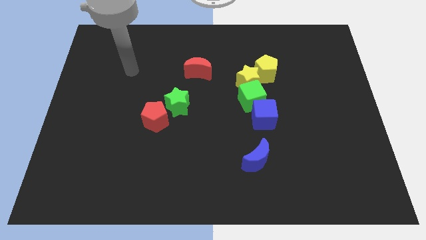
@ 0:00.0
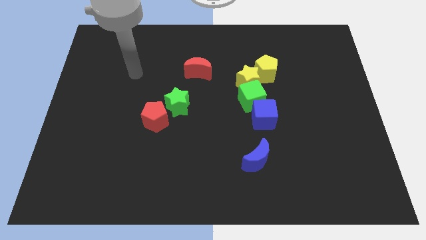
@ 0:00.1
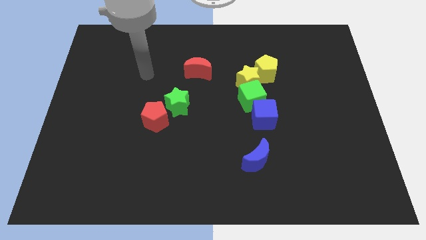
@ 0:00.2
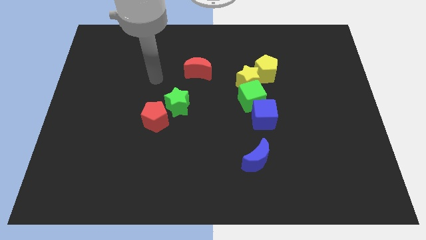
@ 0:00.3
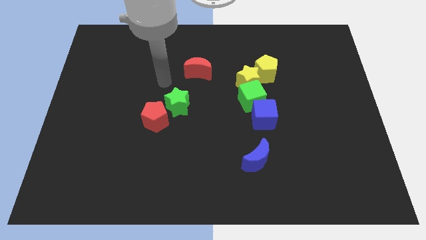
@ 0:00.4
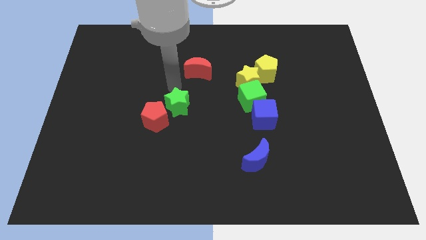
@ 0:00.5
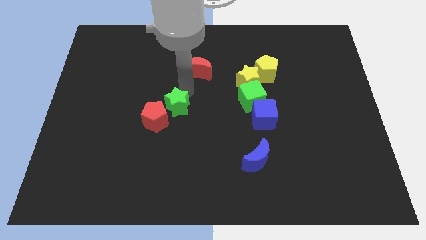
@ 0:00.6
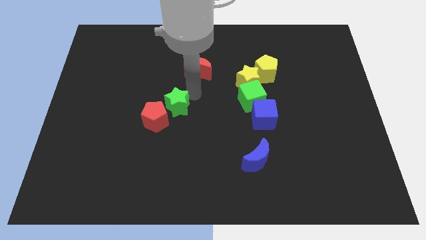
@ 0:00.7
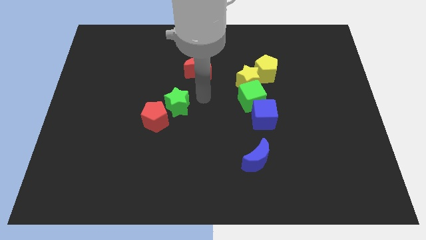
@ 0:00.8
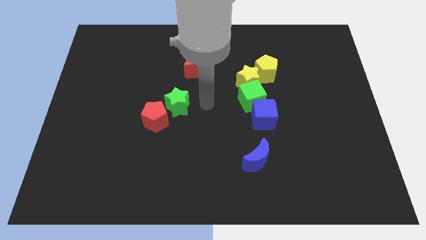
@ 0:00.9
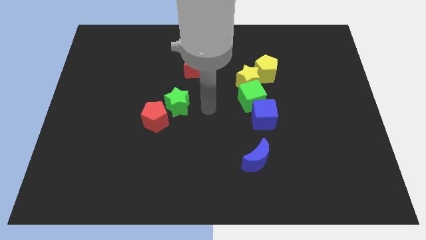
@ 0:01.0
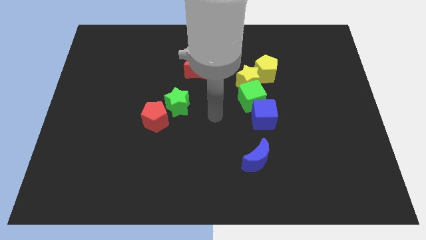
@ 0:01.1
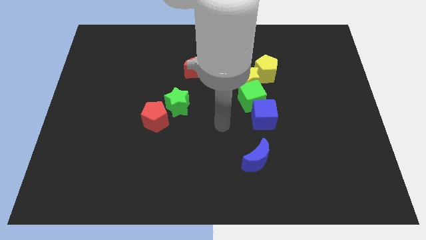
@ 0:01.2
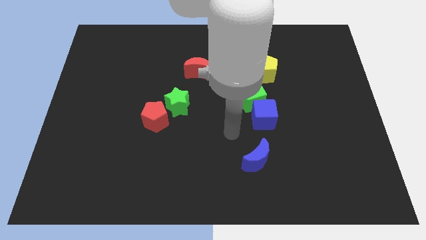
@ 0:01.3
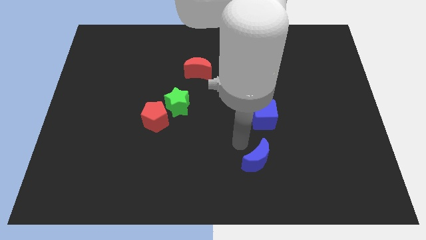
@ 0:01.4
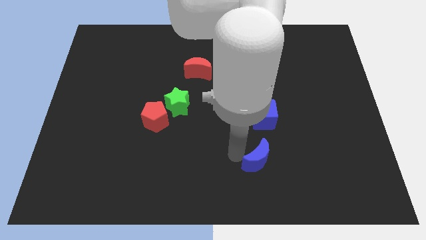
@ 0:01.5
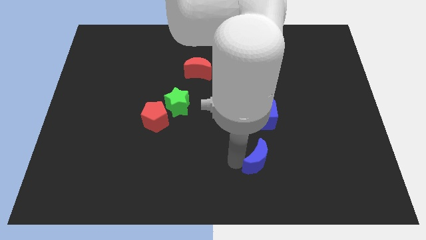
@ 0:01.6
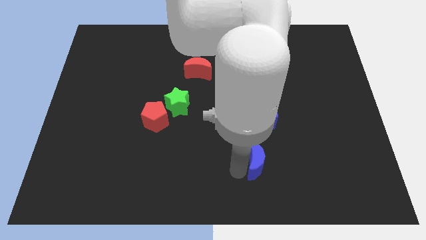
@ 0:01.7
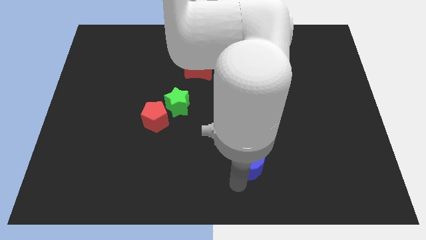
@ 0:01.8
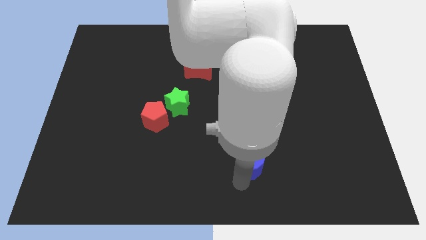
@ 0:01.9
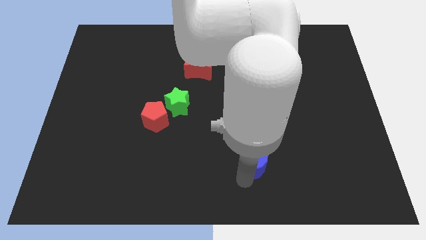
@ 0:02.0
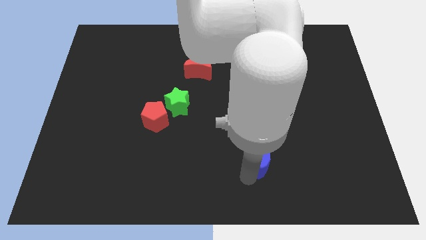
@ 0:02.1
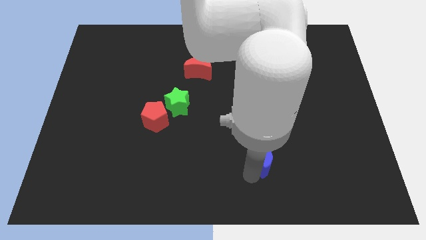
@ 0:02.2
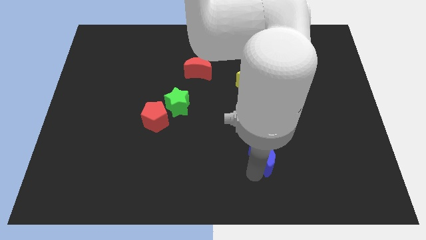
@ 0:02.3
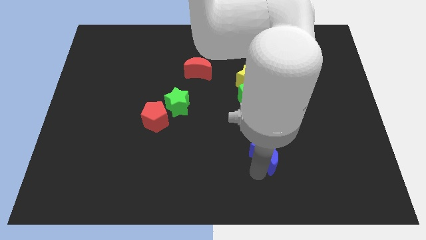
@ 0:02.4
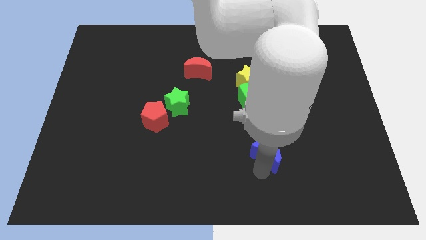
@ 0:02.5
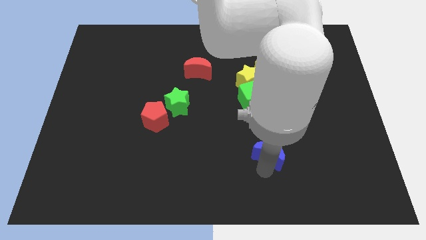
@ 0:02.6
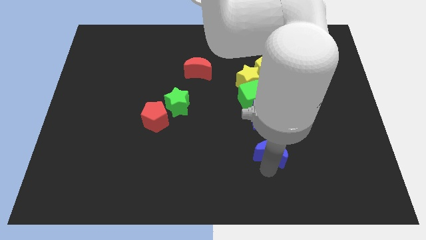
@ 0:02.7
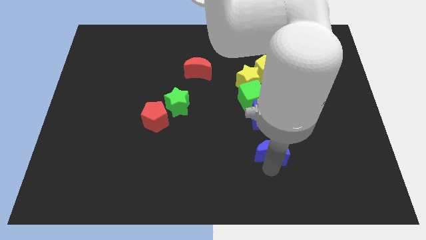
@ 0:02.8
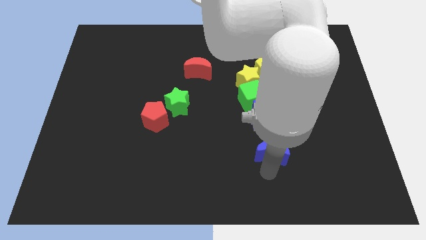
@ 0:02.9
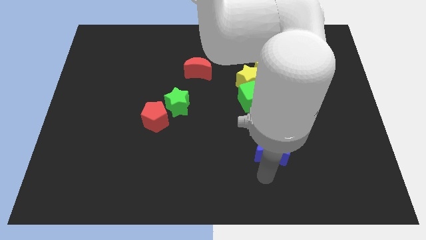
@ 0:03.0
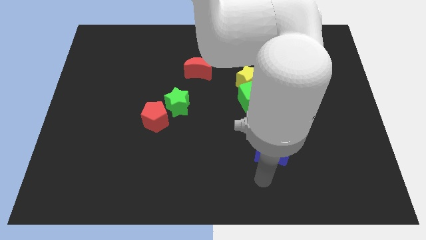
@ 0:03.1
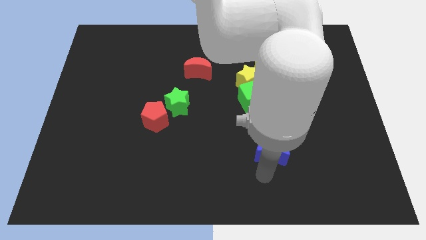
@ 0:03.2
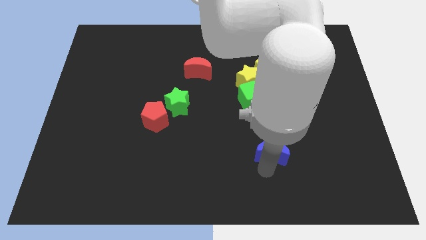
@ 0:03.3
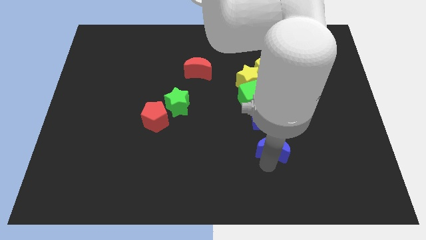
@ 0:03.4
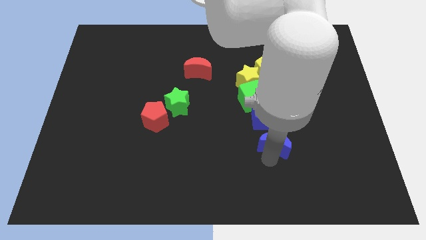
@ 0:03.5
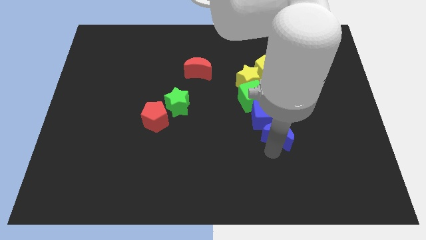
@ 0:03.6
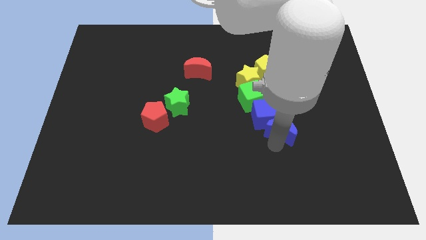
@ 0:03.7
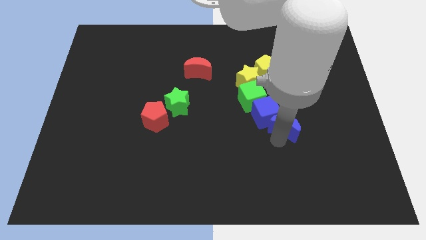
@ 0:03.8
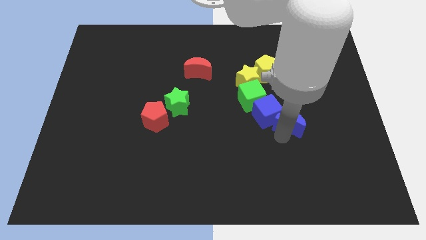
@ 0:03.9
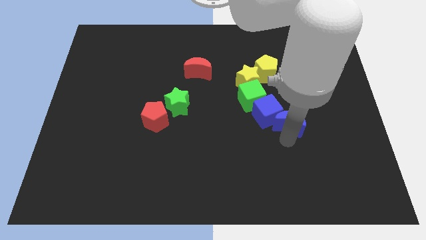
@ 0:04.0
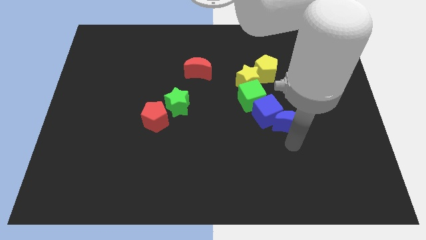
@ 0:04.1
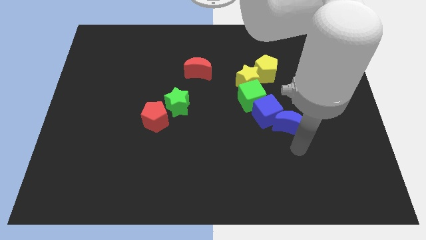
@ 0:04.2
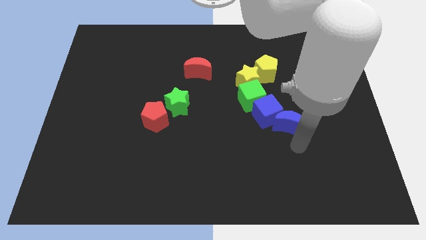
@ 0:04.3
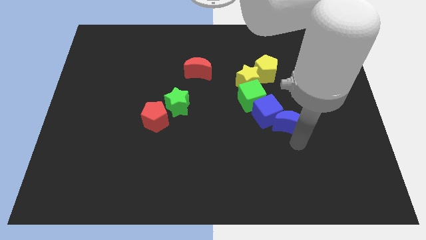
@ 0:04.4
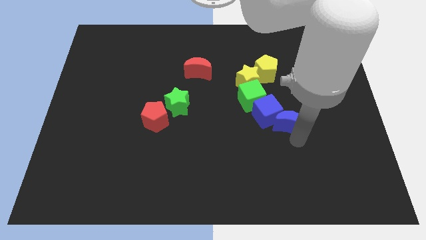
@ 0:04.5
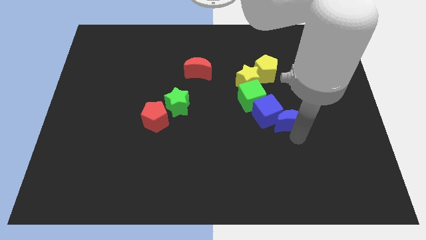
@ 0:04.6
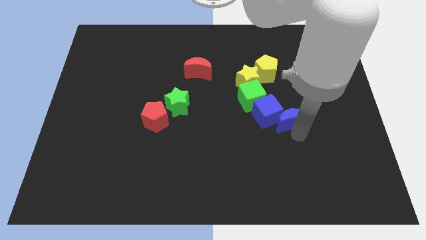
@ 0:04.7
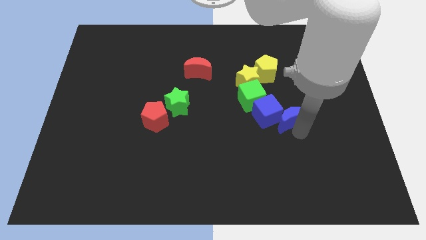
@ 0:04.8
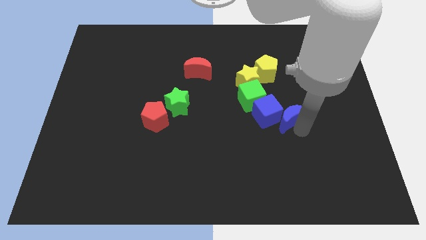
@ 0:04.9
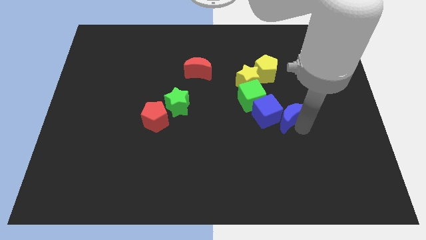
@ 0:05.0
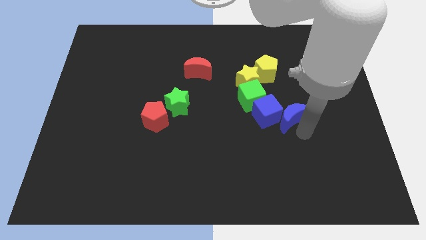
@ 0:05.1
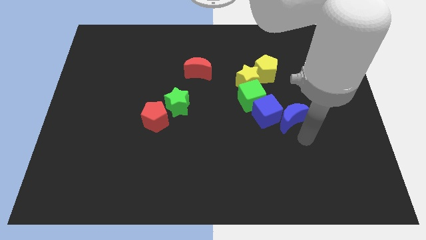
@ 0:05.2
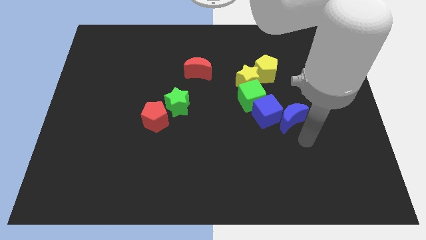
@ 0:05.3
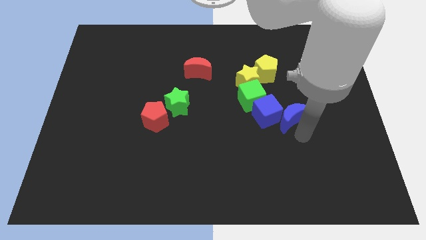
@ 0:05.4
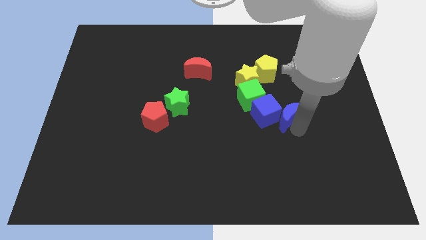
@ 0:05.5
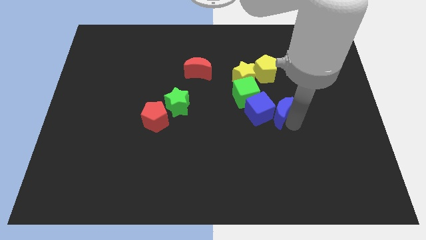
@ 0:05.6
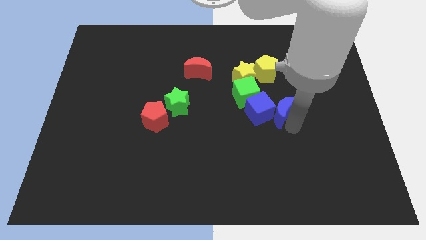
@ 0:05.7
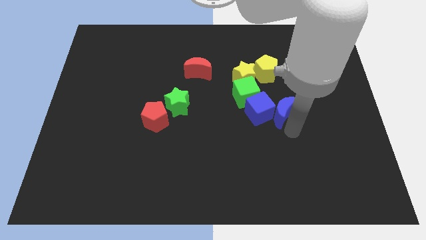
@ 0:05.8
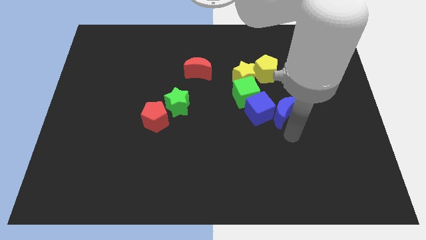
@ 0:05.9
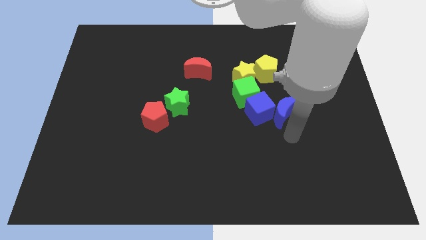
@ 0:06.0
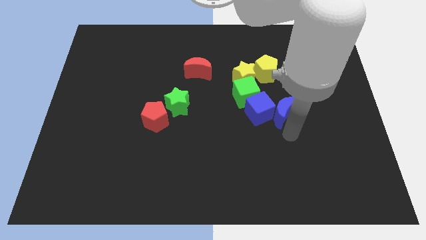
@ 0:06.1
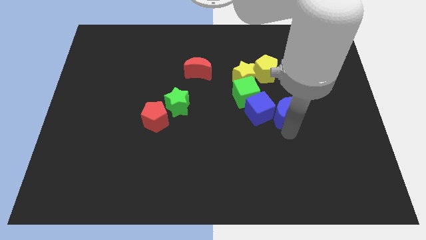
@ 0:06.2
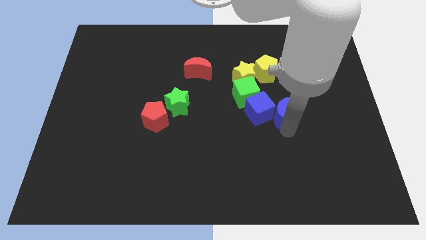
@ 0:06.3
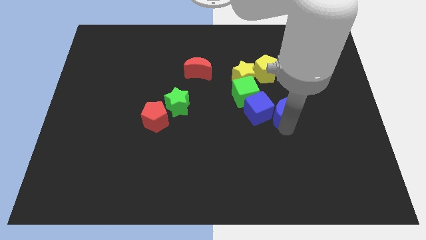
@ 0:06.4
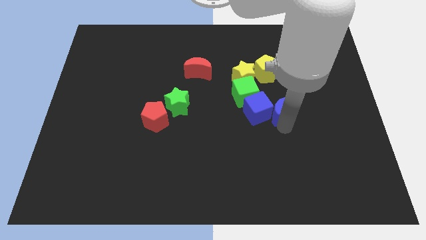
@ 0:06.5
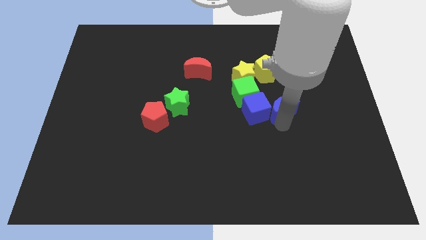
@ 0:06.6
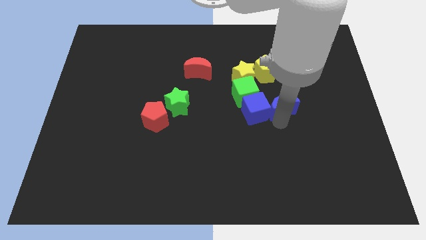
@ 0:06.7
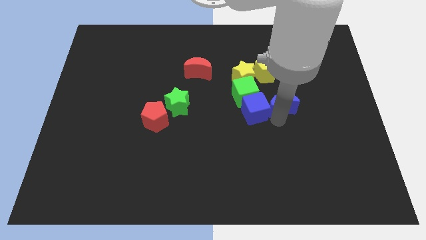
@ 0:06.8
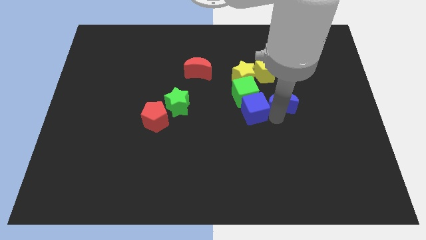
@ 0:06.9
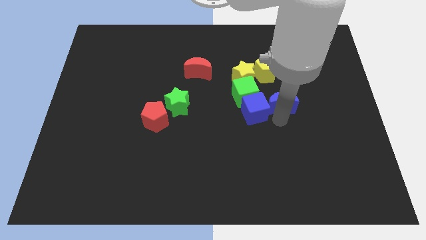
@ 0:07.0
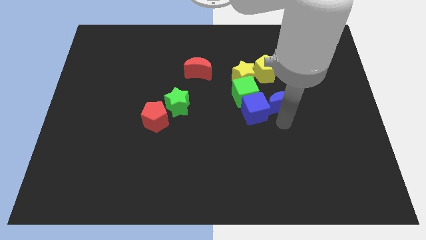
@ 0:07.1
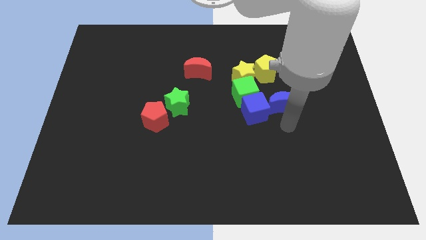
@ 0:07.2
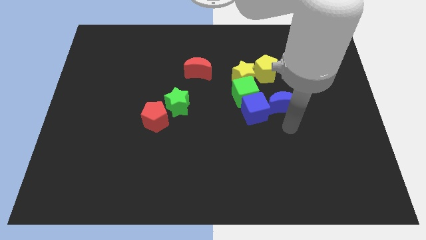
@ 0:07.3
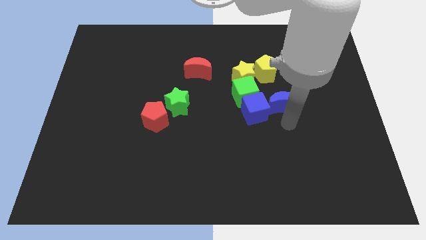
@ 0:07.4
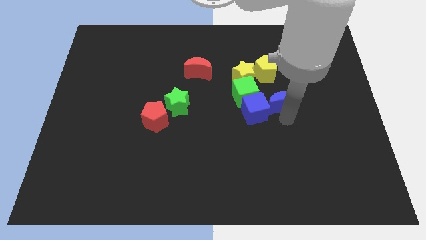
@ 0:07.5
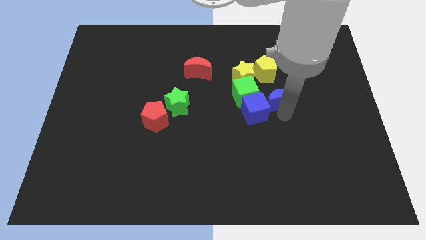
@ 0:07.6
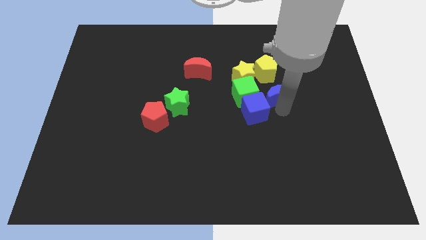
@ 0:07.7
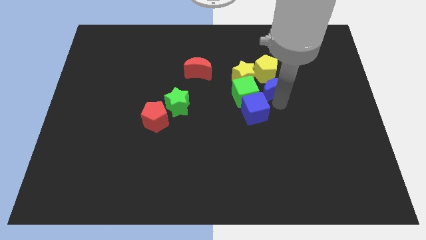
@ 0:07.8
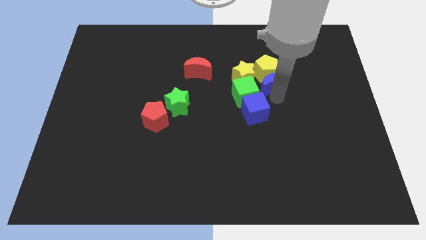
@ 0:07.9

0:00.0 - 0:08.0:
slide the blue moon close to the yellow pentagon
